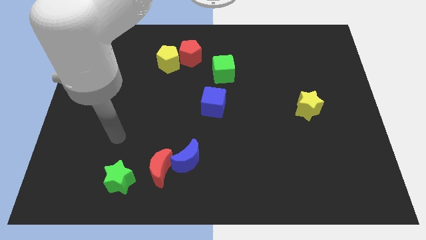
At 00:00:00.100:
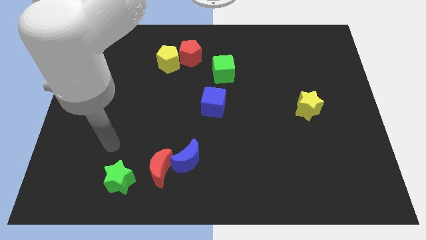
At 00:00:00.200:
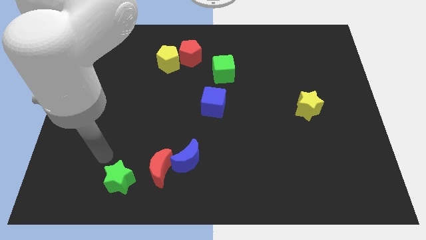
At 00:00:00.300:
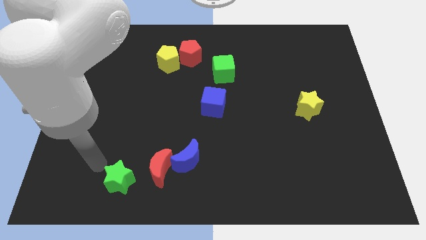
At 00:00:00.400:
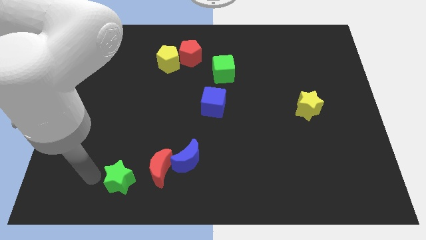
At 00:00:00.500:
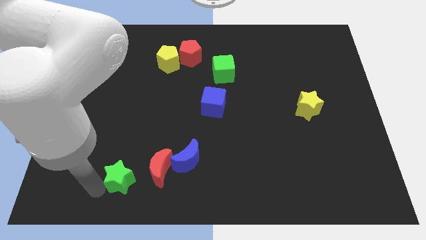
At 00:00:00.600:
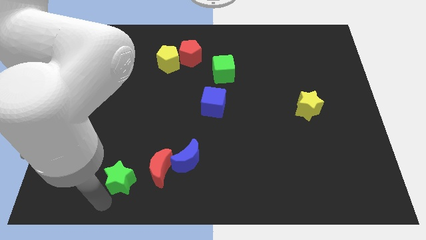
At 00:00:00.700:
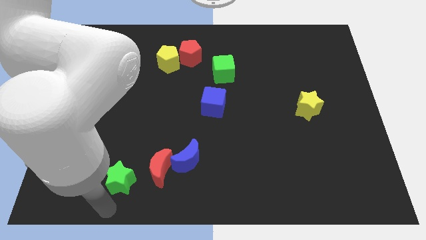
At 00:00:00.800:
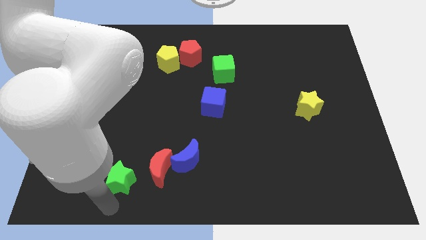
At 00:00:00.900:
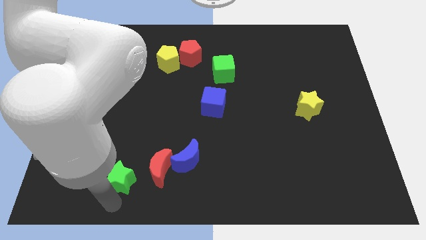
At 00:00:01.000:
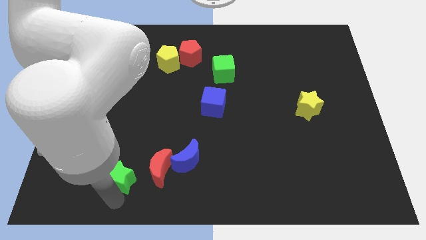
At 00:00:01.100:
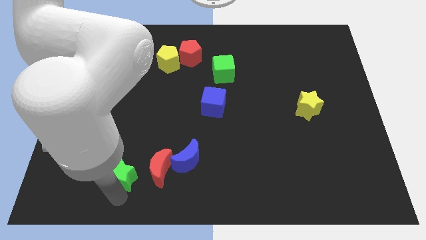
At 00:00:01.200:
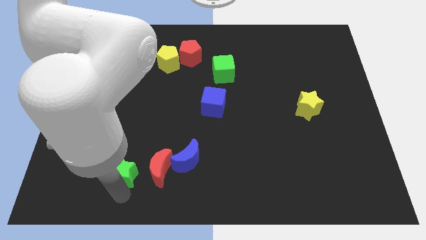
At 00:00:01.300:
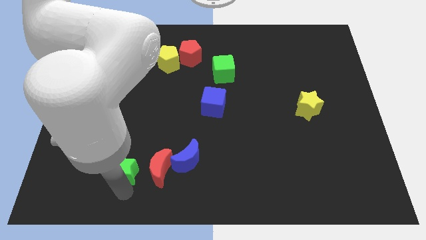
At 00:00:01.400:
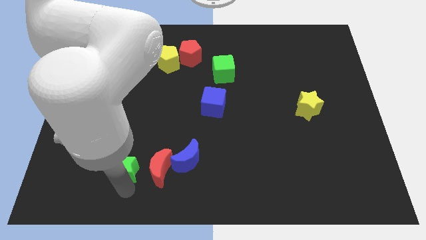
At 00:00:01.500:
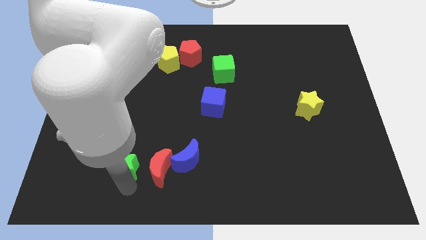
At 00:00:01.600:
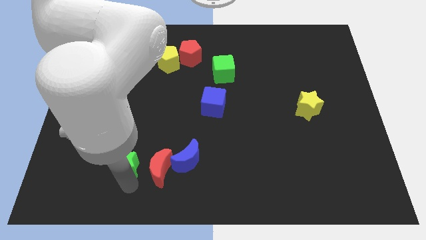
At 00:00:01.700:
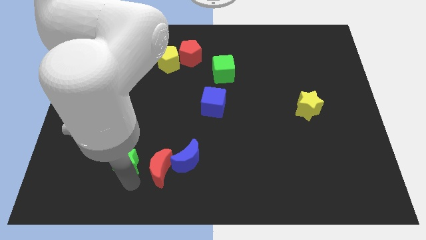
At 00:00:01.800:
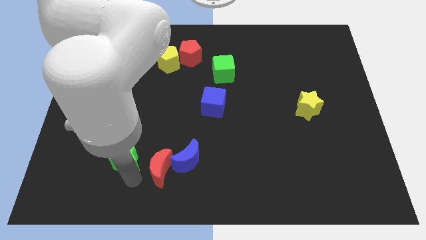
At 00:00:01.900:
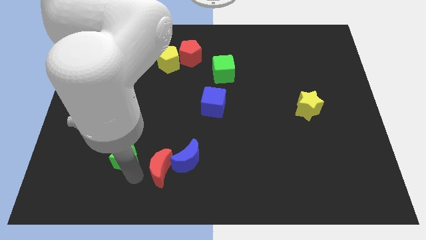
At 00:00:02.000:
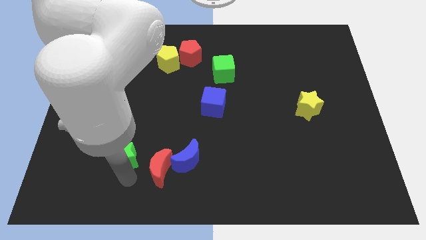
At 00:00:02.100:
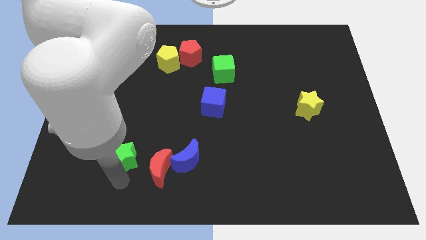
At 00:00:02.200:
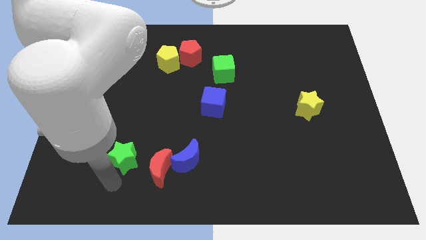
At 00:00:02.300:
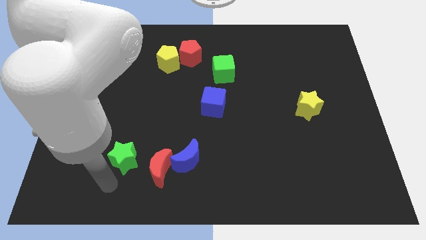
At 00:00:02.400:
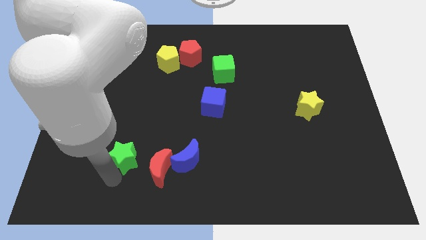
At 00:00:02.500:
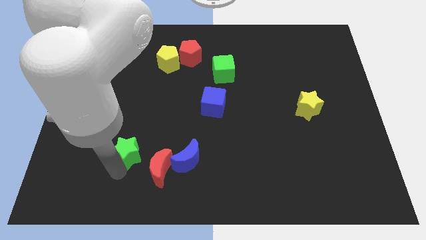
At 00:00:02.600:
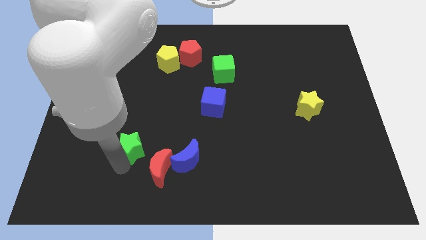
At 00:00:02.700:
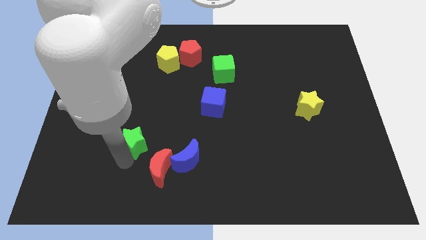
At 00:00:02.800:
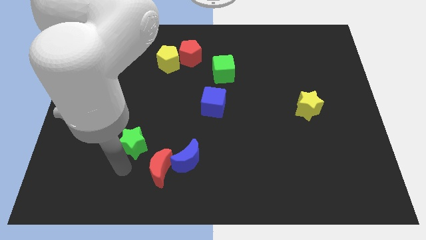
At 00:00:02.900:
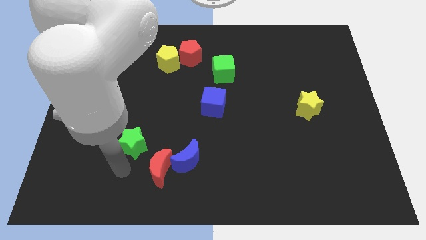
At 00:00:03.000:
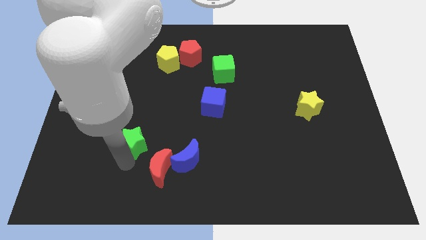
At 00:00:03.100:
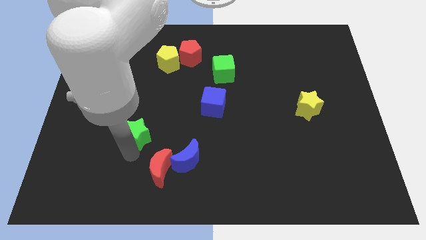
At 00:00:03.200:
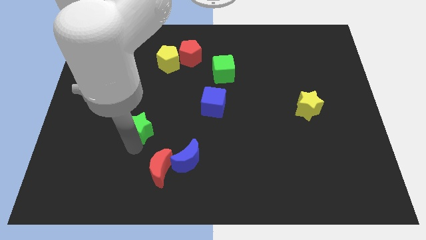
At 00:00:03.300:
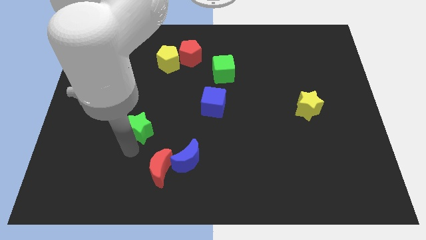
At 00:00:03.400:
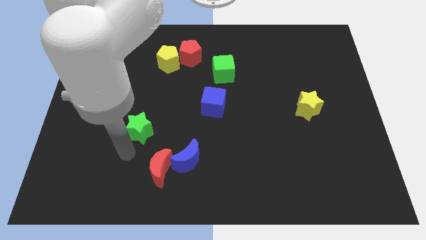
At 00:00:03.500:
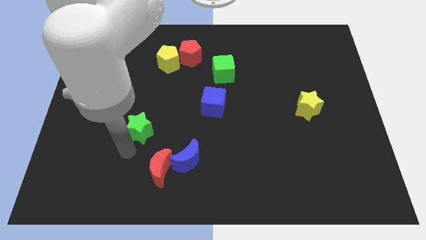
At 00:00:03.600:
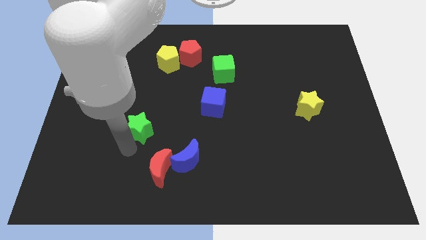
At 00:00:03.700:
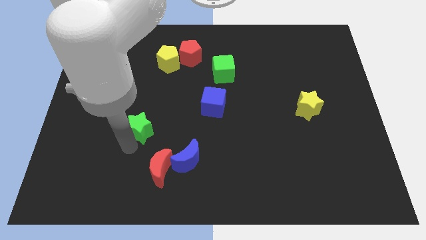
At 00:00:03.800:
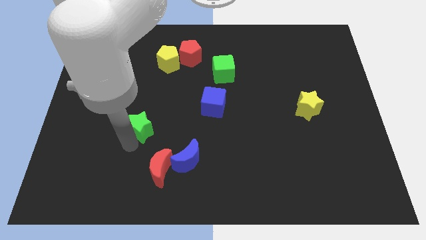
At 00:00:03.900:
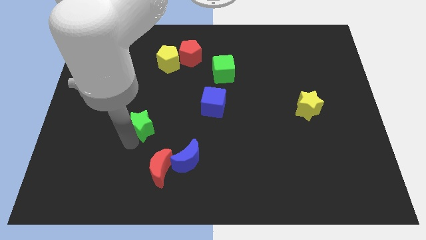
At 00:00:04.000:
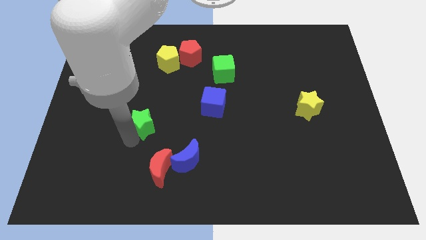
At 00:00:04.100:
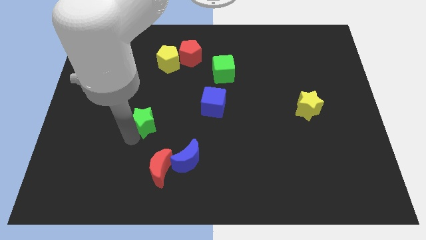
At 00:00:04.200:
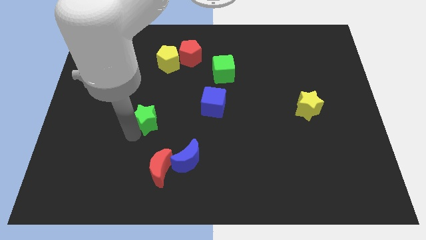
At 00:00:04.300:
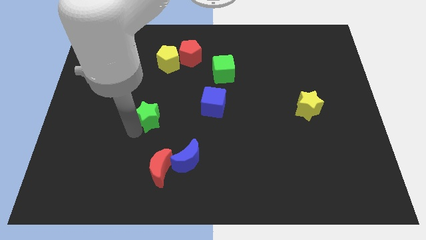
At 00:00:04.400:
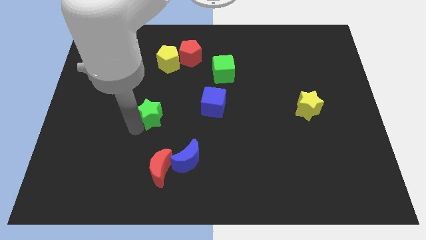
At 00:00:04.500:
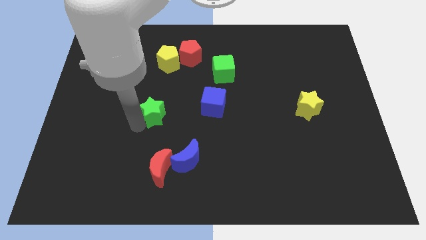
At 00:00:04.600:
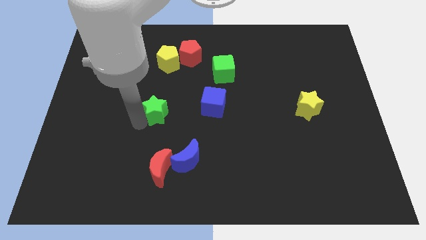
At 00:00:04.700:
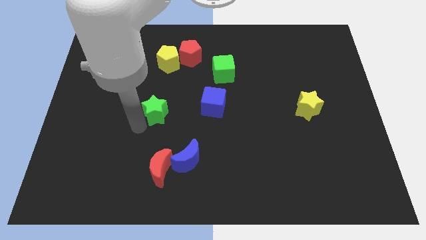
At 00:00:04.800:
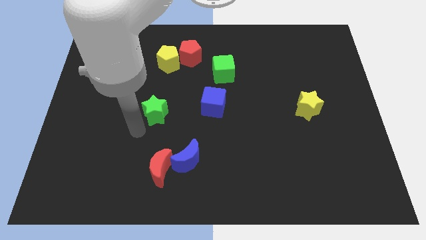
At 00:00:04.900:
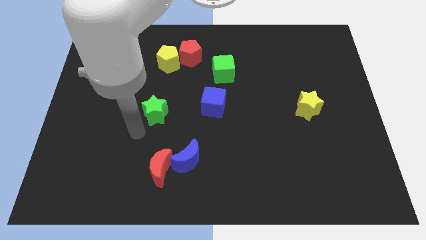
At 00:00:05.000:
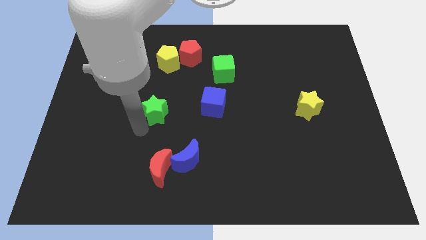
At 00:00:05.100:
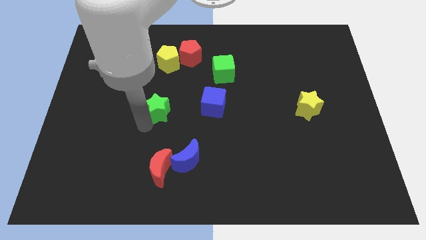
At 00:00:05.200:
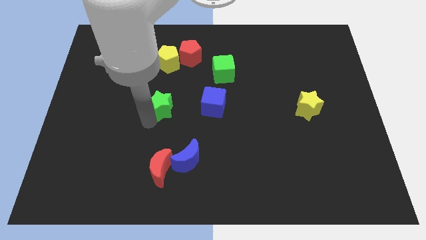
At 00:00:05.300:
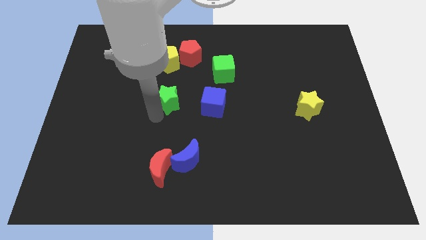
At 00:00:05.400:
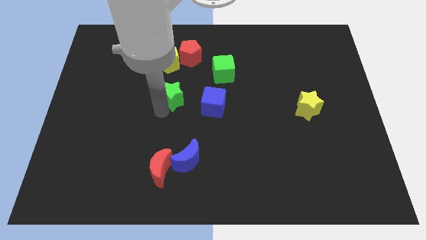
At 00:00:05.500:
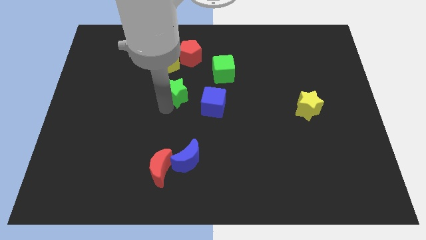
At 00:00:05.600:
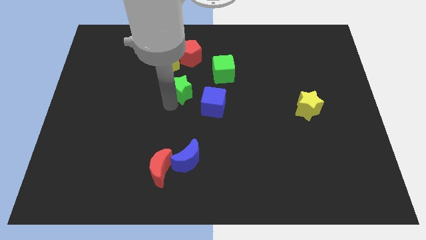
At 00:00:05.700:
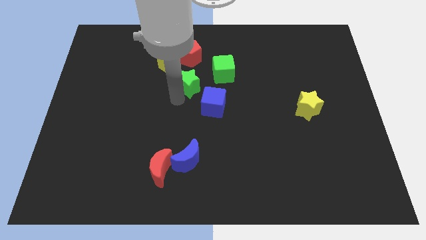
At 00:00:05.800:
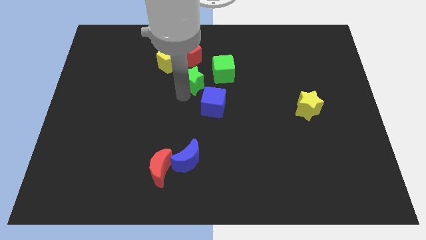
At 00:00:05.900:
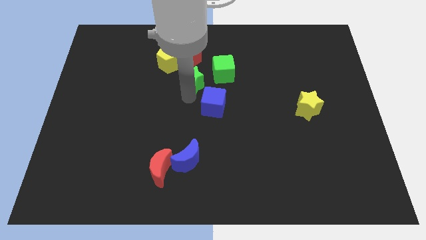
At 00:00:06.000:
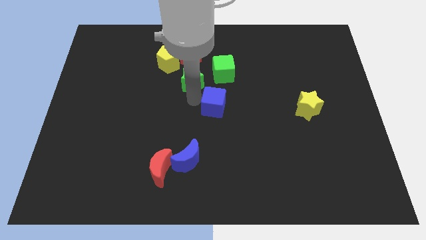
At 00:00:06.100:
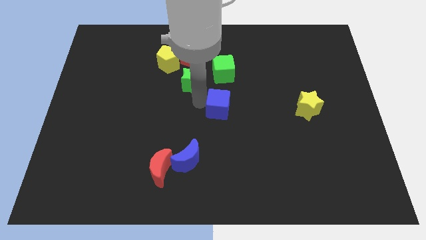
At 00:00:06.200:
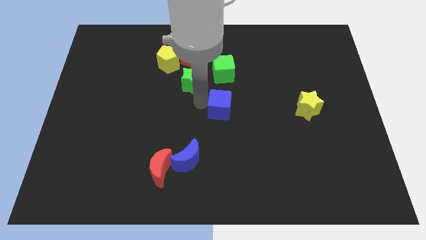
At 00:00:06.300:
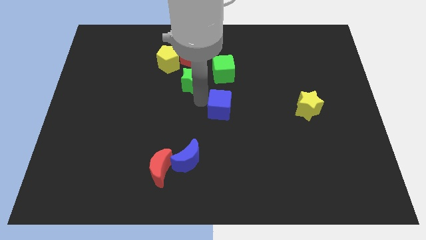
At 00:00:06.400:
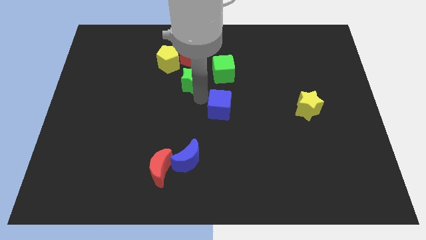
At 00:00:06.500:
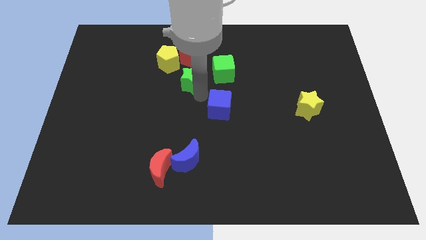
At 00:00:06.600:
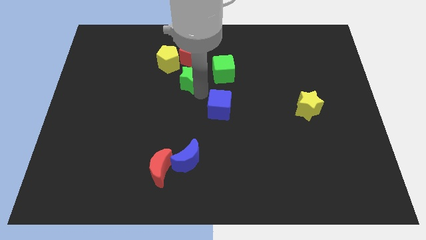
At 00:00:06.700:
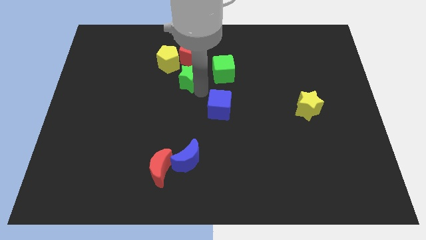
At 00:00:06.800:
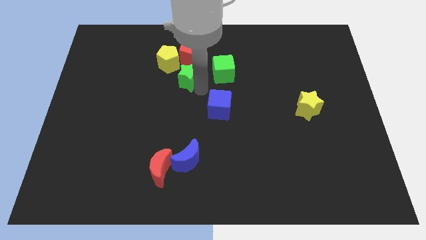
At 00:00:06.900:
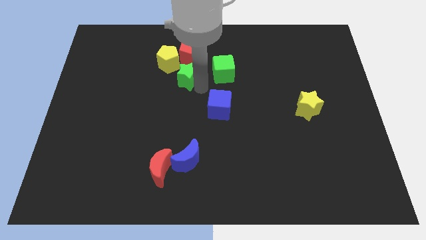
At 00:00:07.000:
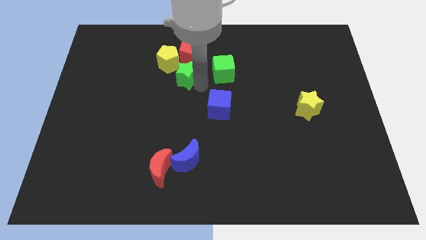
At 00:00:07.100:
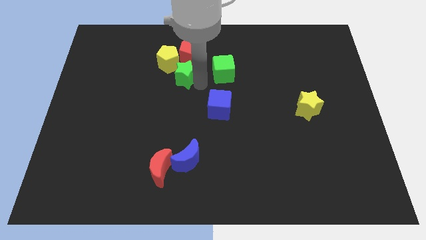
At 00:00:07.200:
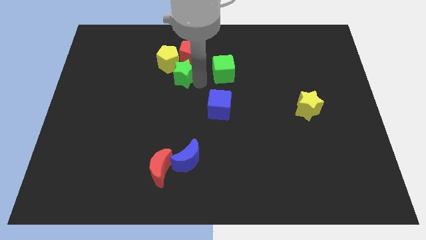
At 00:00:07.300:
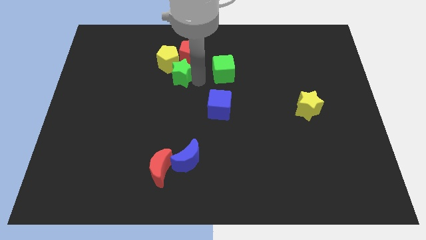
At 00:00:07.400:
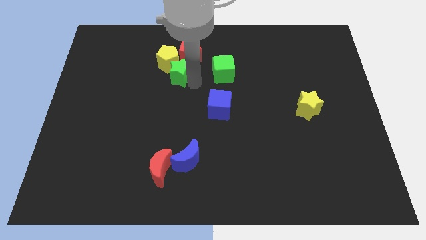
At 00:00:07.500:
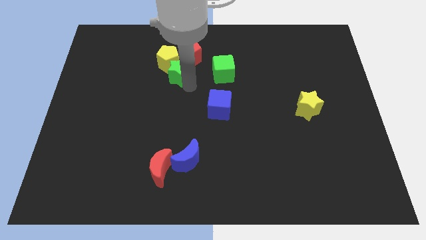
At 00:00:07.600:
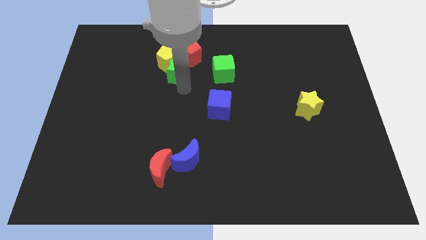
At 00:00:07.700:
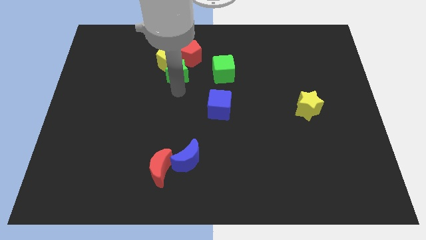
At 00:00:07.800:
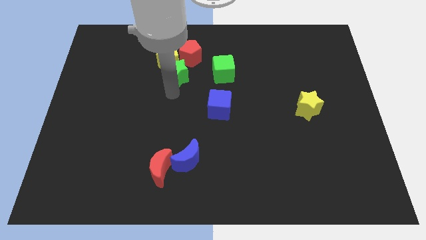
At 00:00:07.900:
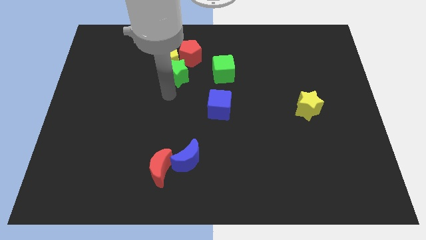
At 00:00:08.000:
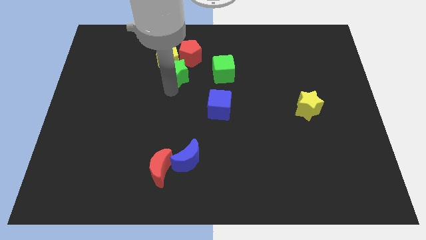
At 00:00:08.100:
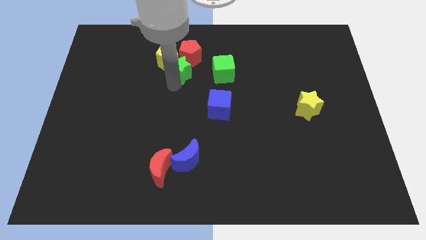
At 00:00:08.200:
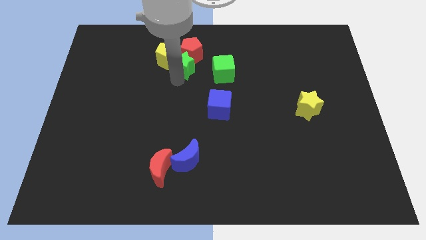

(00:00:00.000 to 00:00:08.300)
move the green star next to the red pentagon
